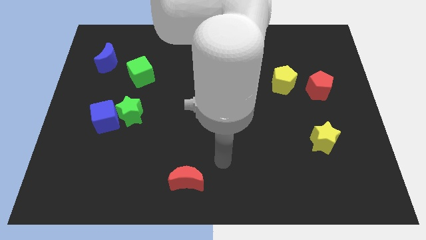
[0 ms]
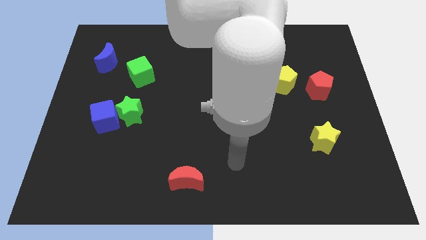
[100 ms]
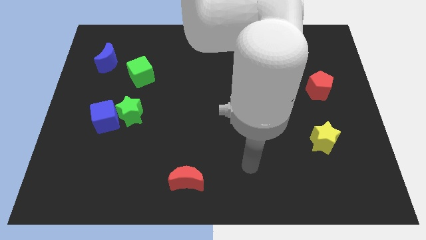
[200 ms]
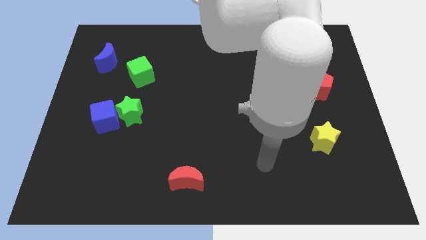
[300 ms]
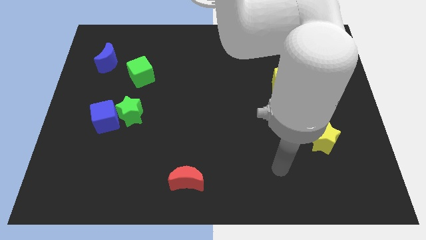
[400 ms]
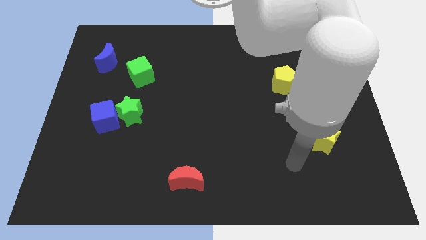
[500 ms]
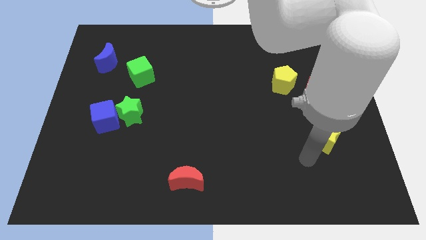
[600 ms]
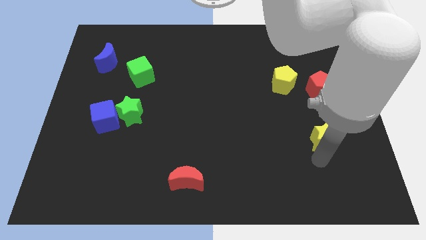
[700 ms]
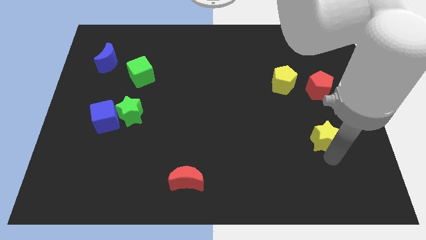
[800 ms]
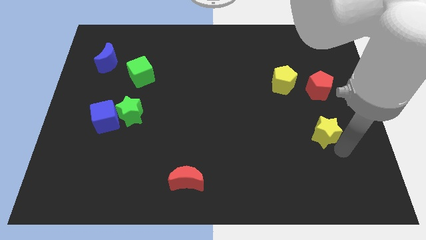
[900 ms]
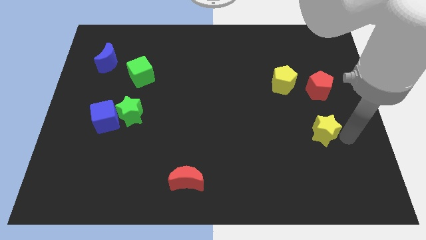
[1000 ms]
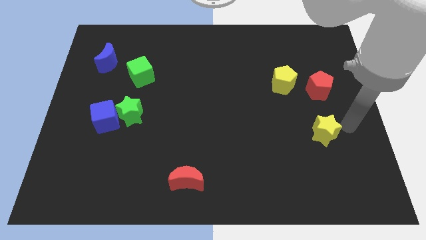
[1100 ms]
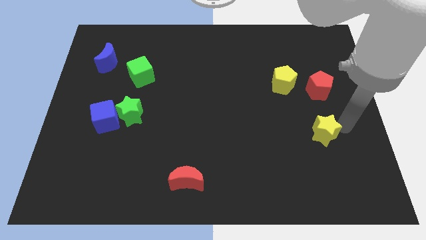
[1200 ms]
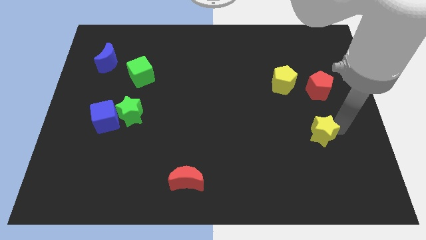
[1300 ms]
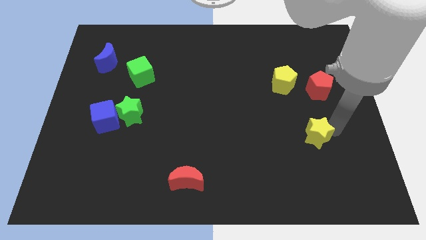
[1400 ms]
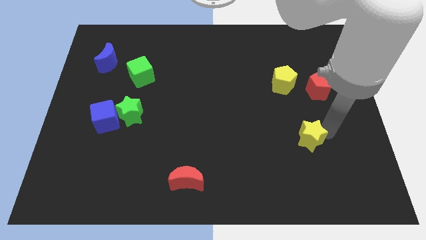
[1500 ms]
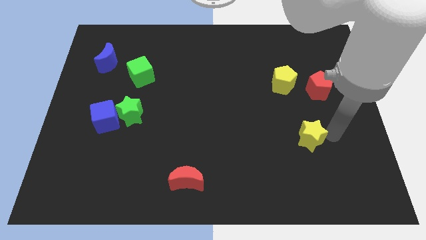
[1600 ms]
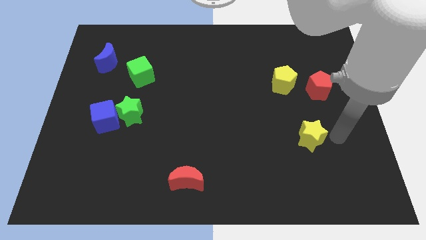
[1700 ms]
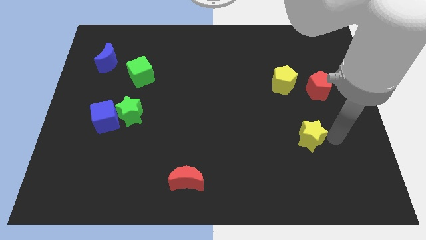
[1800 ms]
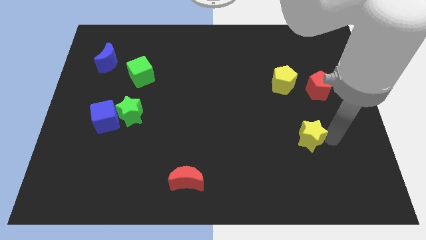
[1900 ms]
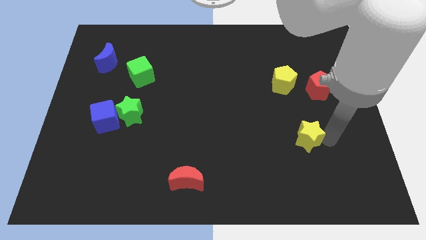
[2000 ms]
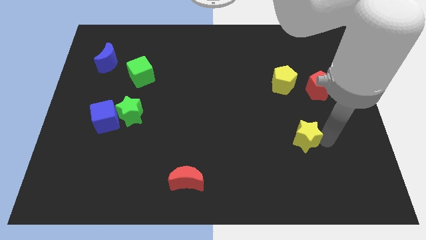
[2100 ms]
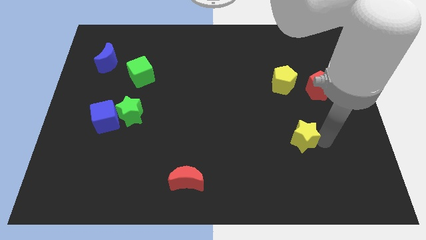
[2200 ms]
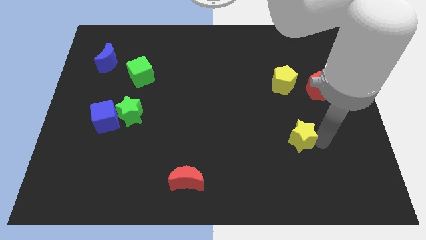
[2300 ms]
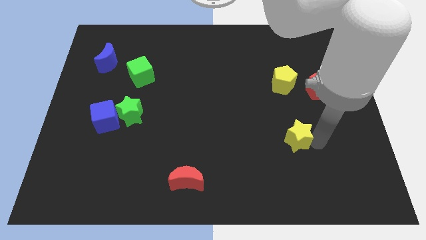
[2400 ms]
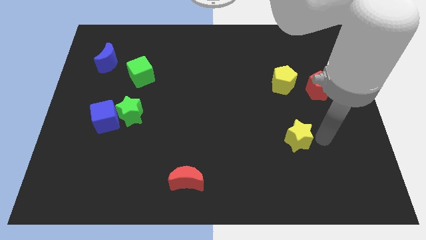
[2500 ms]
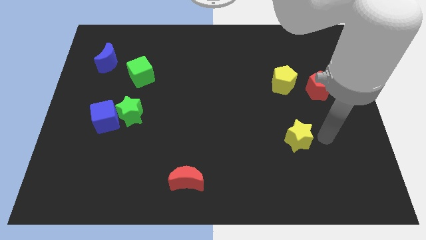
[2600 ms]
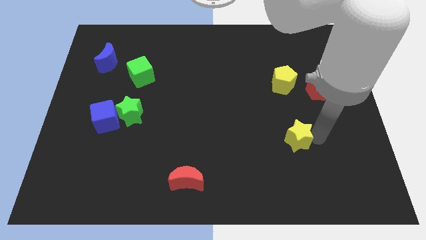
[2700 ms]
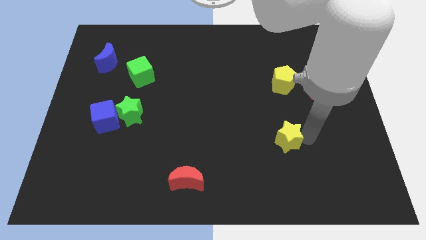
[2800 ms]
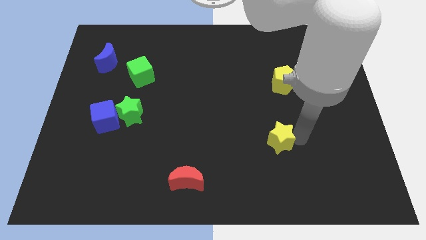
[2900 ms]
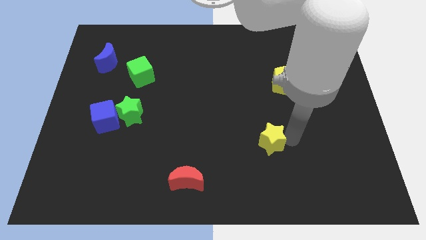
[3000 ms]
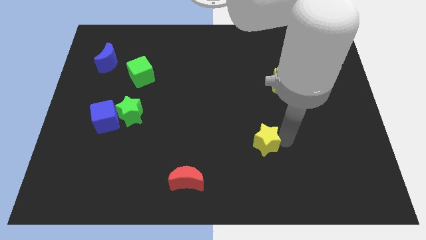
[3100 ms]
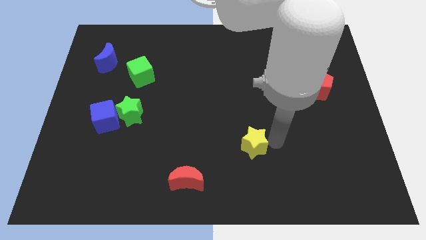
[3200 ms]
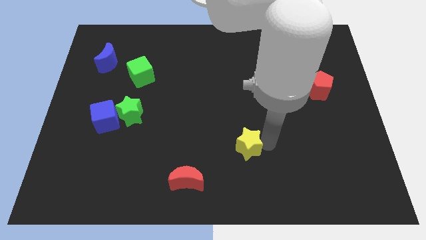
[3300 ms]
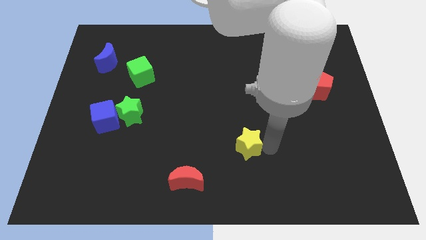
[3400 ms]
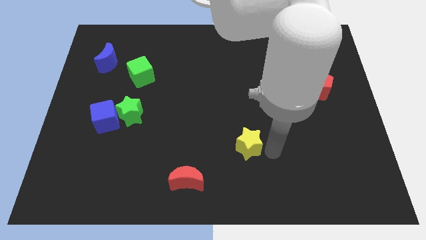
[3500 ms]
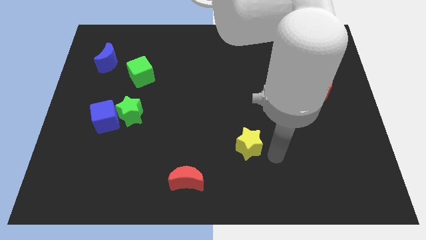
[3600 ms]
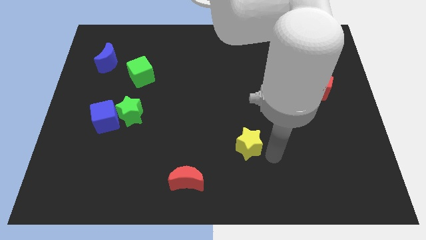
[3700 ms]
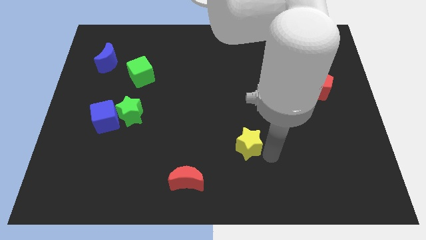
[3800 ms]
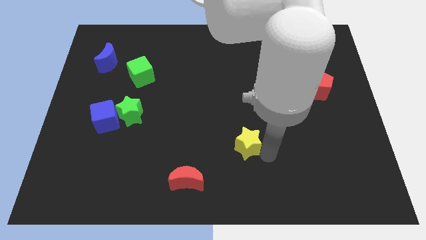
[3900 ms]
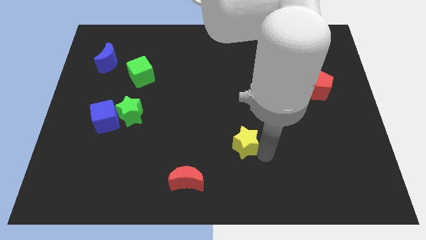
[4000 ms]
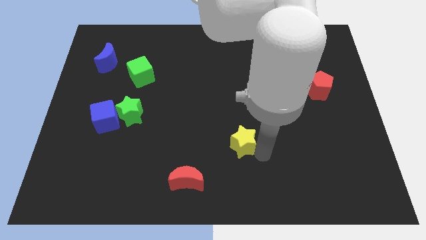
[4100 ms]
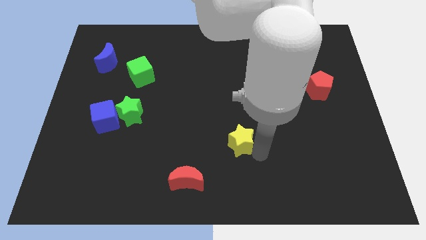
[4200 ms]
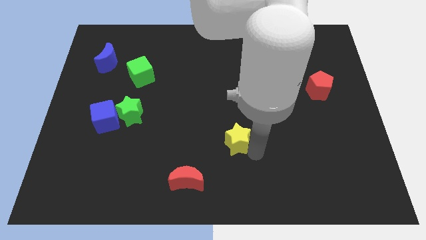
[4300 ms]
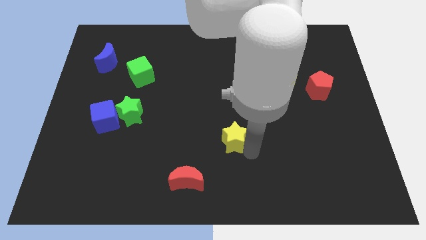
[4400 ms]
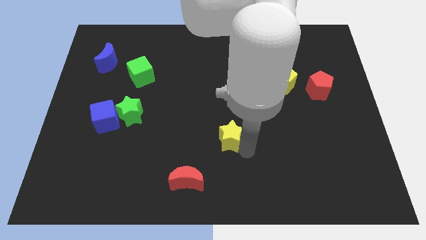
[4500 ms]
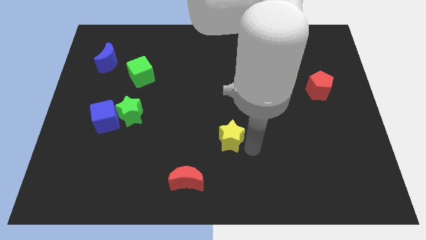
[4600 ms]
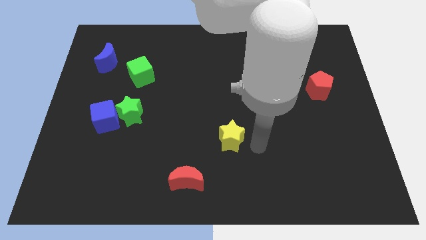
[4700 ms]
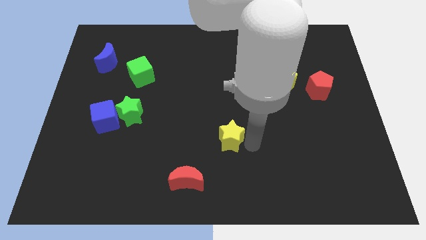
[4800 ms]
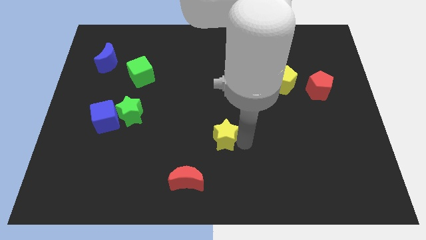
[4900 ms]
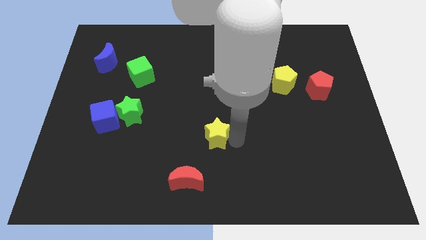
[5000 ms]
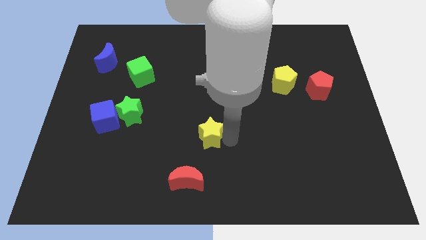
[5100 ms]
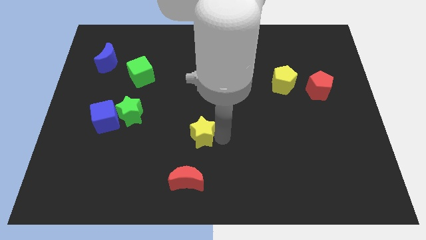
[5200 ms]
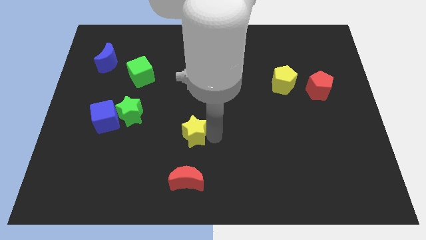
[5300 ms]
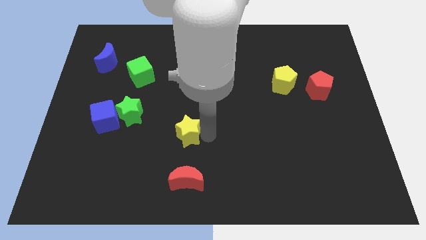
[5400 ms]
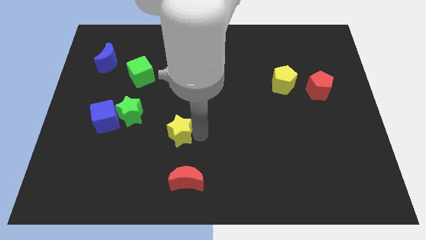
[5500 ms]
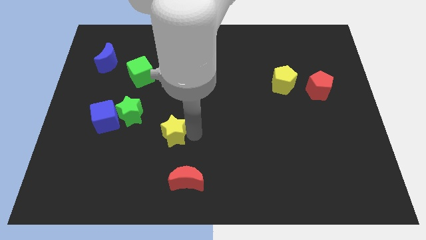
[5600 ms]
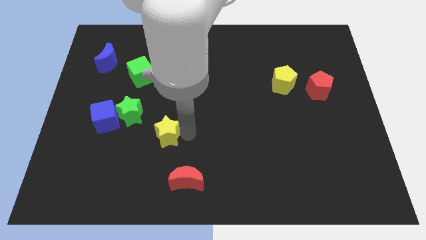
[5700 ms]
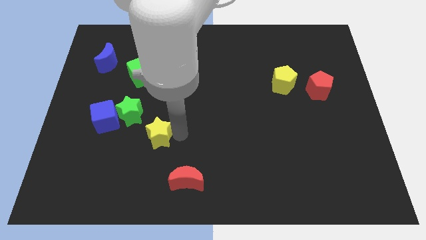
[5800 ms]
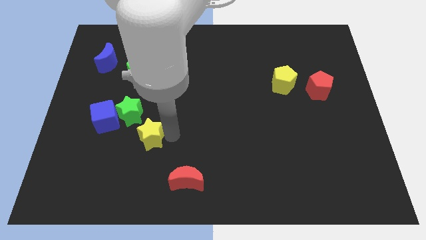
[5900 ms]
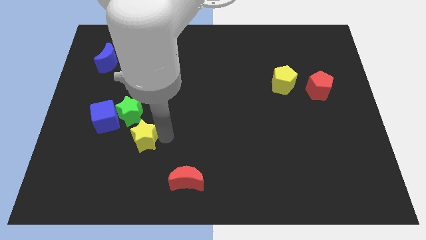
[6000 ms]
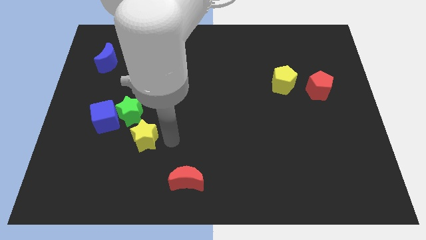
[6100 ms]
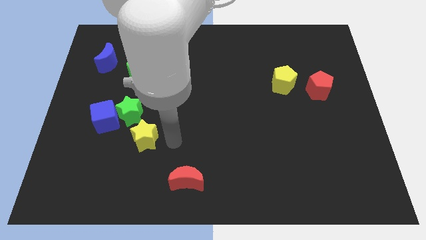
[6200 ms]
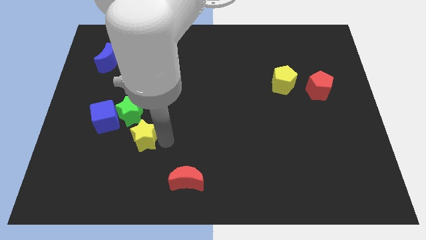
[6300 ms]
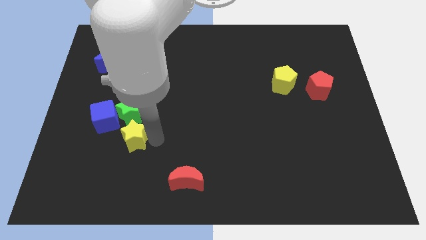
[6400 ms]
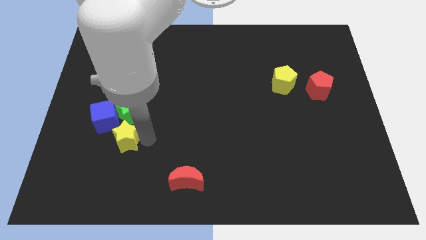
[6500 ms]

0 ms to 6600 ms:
slide the yellow star to the bottom left side of the green star
